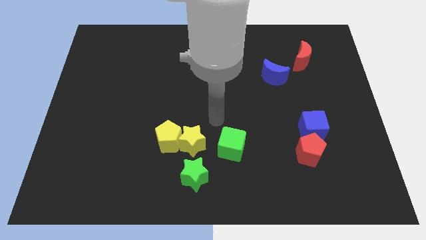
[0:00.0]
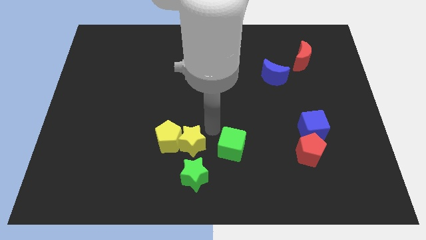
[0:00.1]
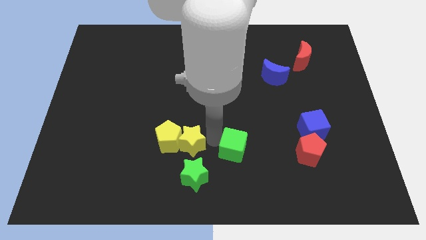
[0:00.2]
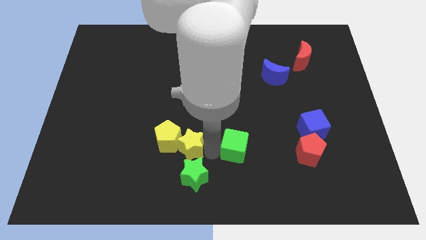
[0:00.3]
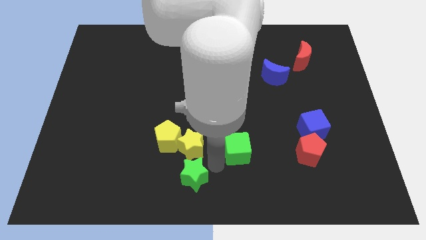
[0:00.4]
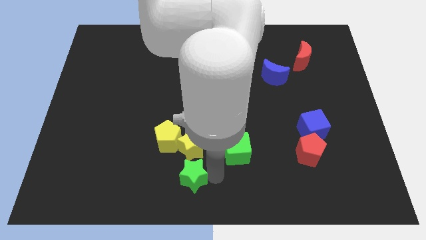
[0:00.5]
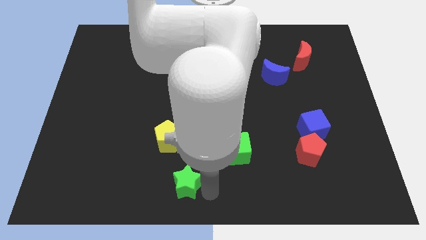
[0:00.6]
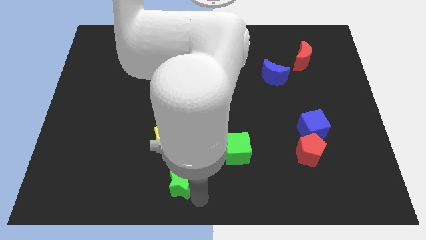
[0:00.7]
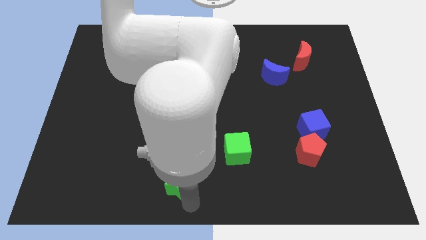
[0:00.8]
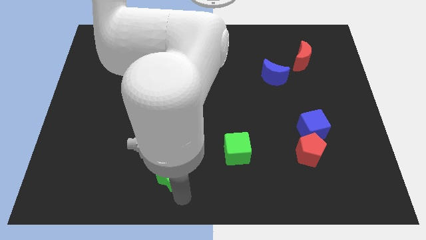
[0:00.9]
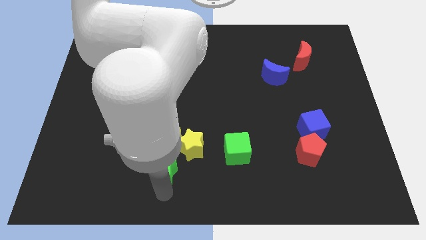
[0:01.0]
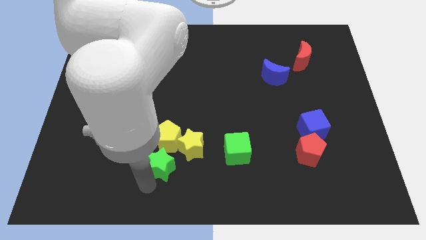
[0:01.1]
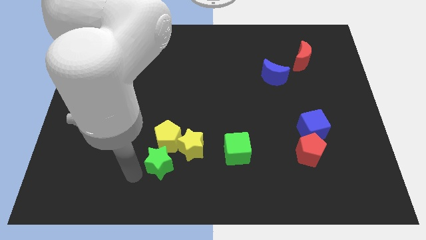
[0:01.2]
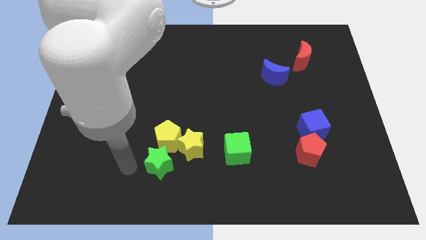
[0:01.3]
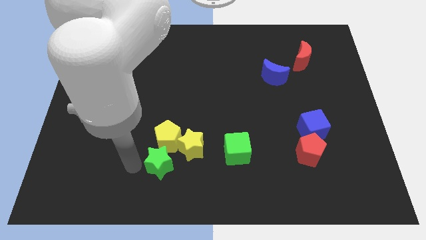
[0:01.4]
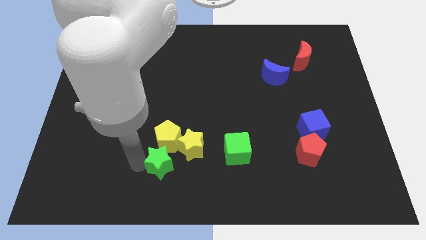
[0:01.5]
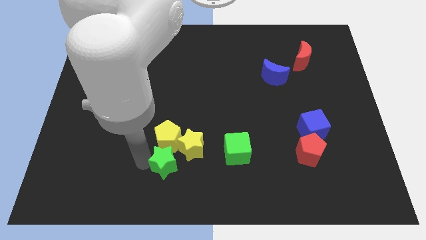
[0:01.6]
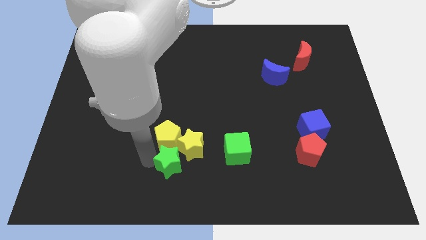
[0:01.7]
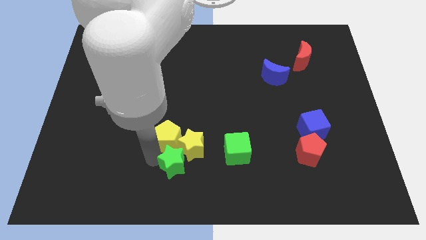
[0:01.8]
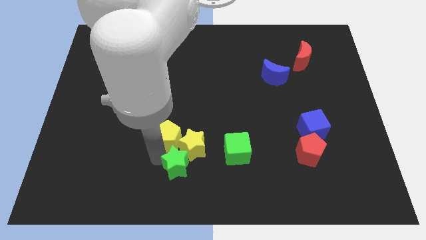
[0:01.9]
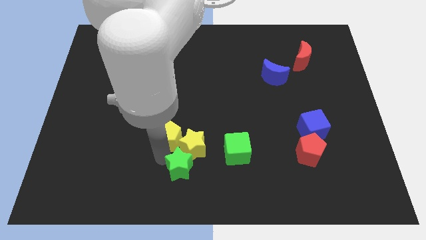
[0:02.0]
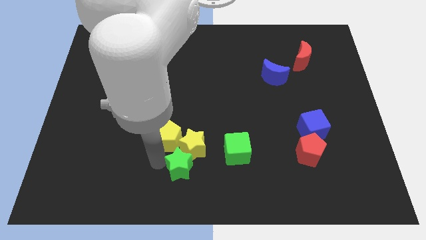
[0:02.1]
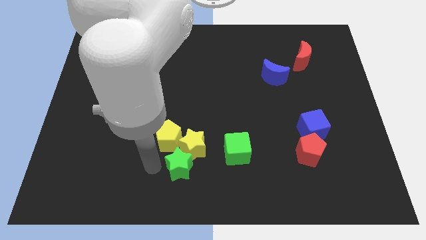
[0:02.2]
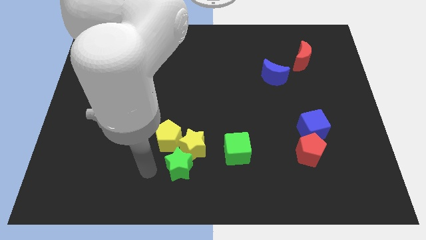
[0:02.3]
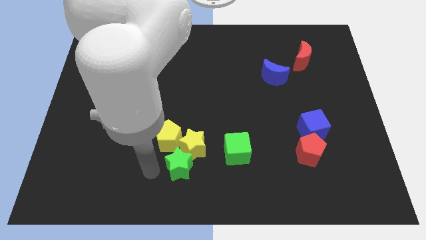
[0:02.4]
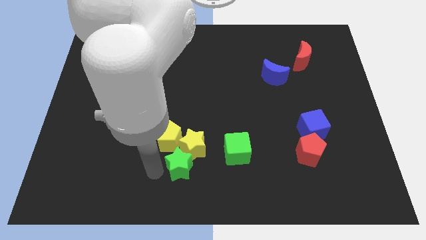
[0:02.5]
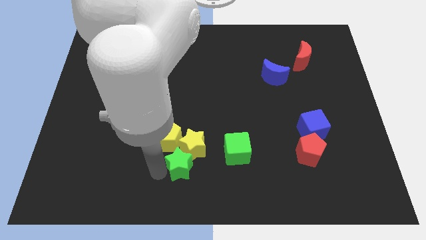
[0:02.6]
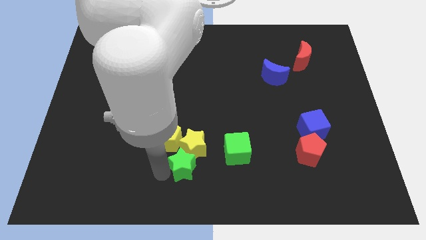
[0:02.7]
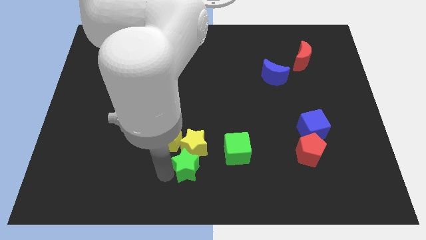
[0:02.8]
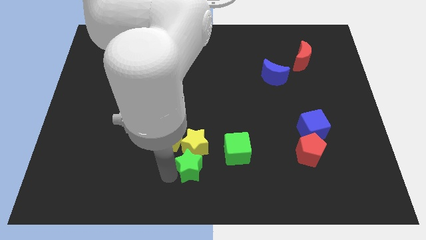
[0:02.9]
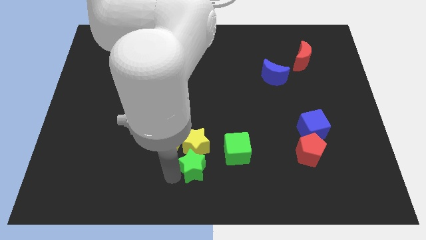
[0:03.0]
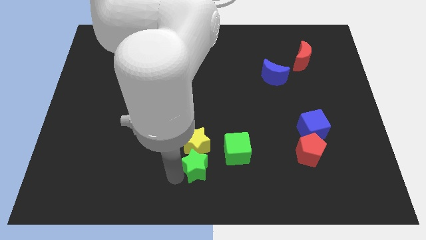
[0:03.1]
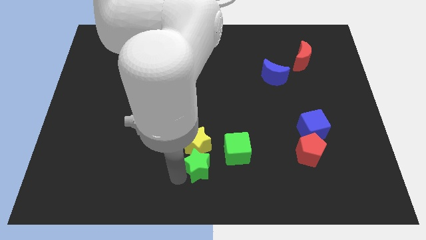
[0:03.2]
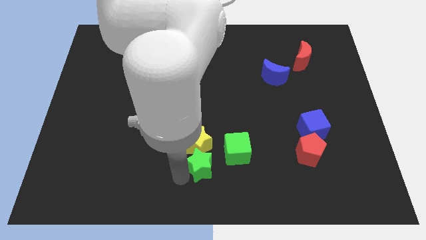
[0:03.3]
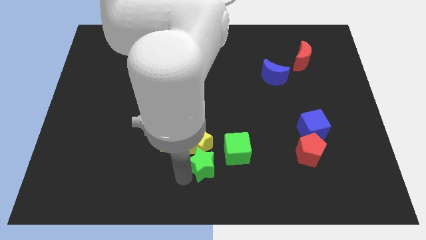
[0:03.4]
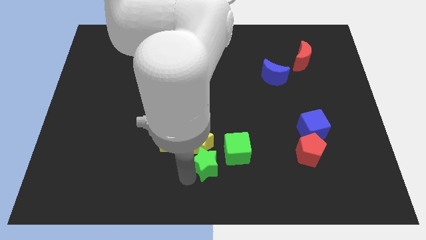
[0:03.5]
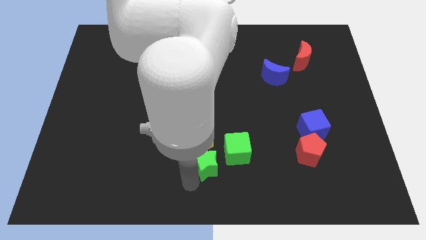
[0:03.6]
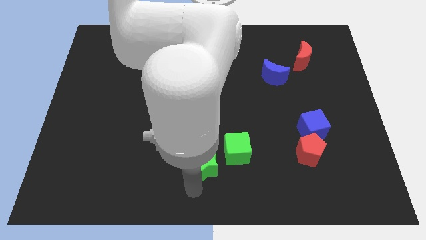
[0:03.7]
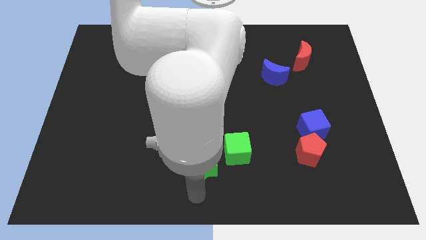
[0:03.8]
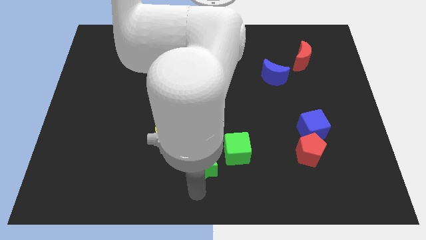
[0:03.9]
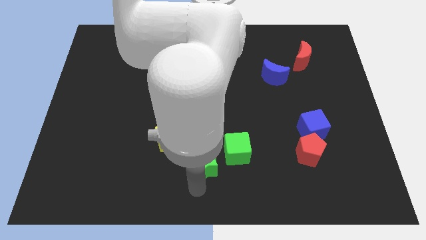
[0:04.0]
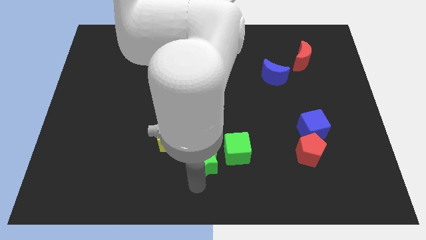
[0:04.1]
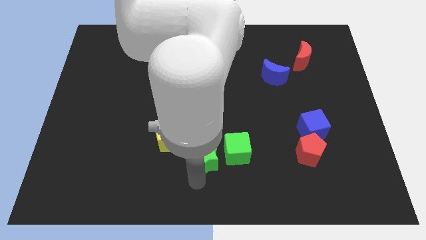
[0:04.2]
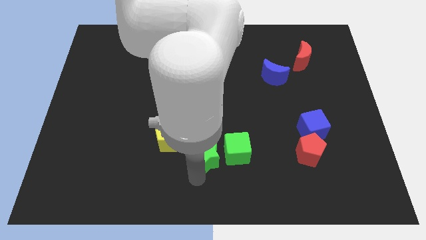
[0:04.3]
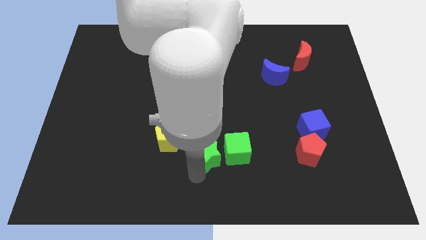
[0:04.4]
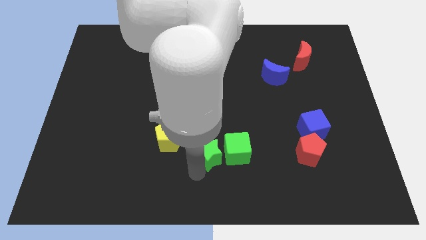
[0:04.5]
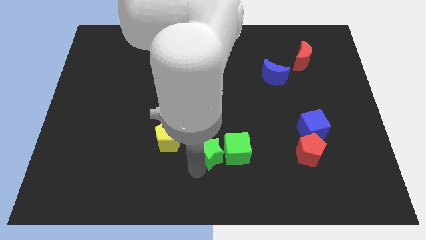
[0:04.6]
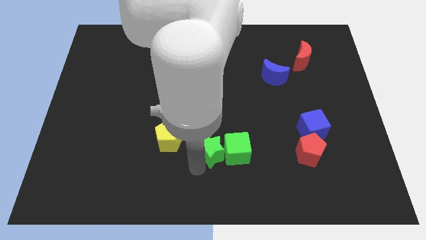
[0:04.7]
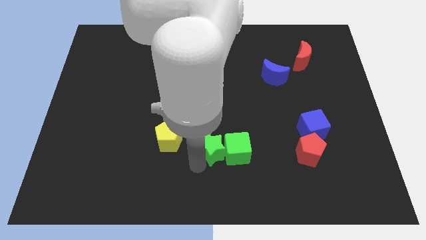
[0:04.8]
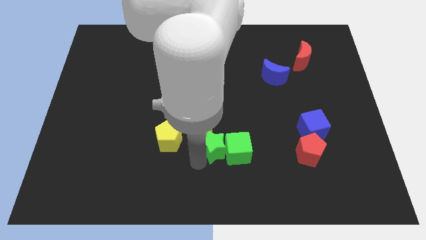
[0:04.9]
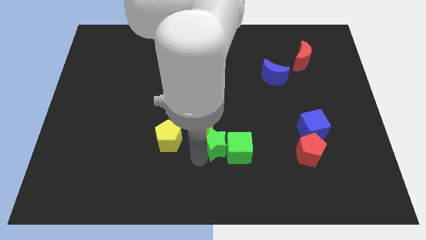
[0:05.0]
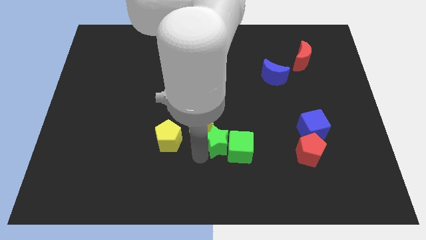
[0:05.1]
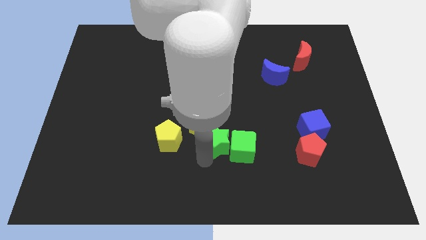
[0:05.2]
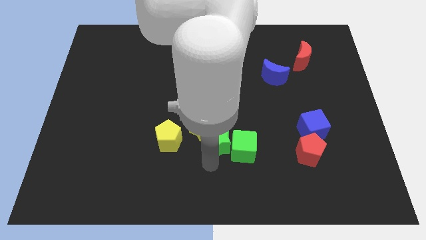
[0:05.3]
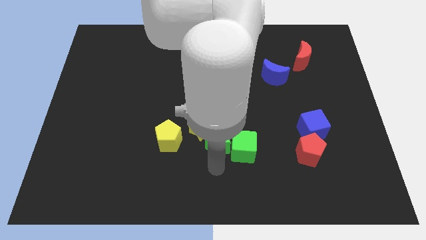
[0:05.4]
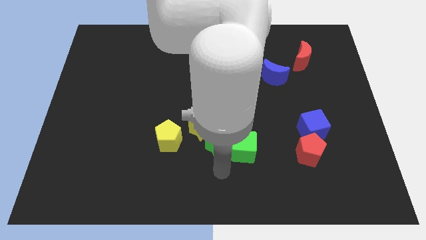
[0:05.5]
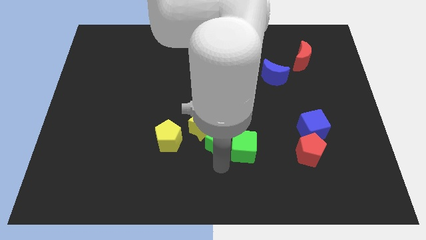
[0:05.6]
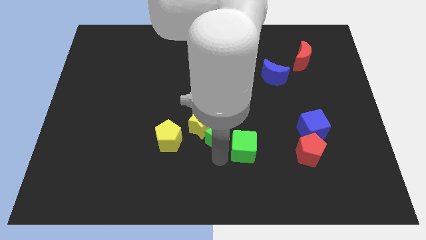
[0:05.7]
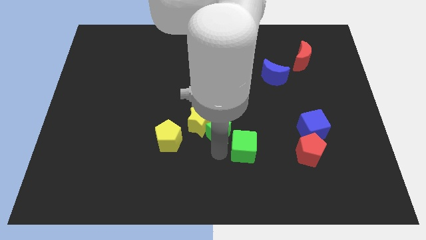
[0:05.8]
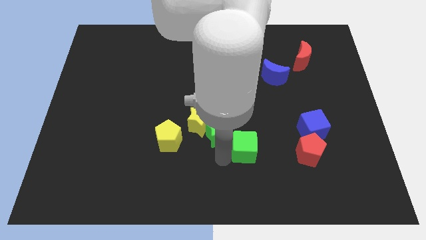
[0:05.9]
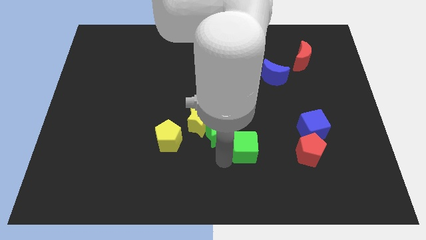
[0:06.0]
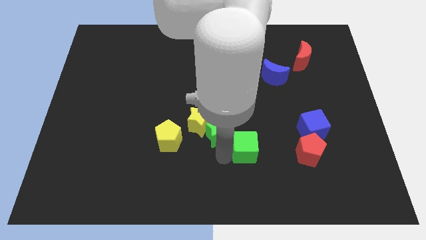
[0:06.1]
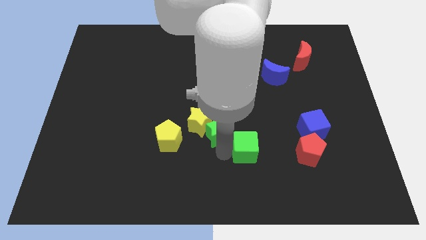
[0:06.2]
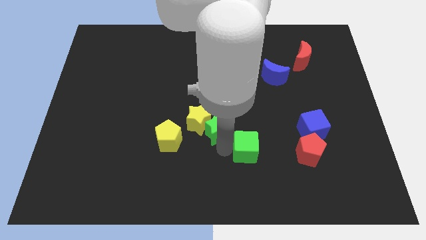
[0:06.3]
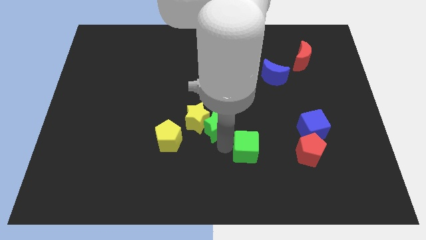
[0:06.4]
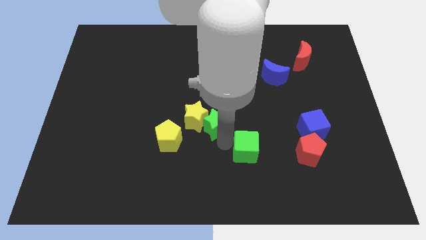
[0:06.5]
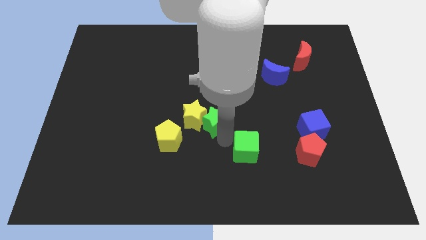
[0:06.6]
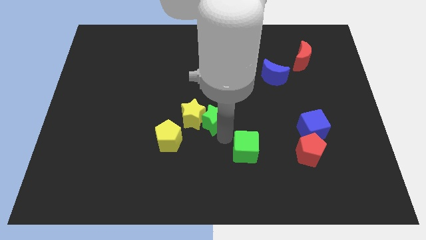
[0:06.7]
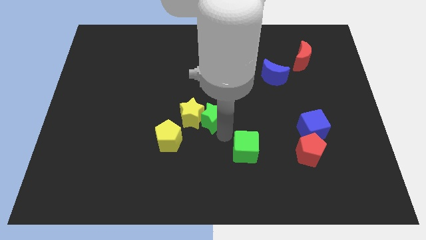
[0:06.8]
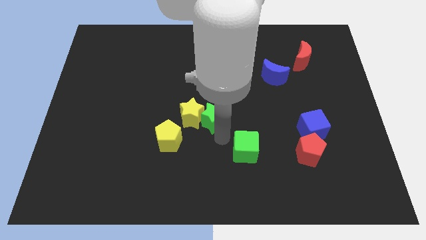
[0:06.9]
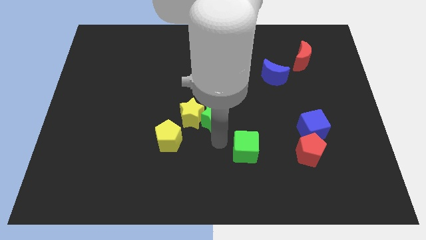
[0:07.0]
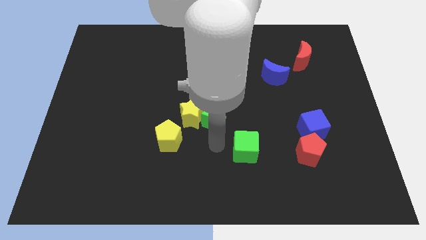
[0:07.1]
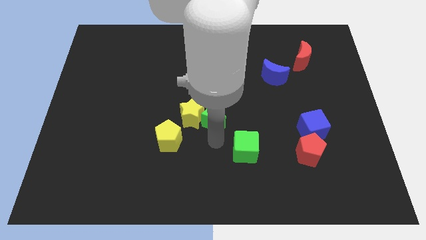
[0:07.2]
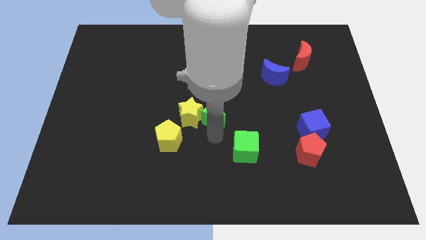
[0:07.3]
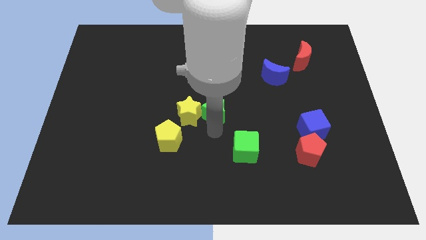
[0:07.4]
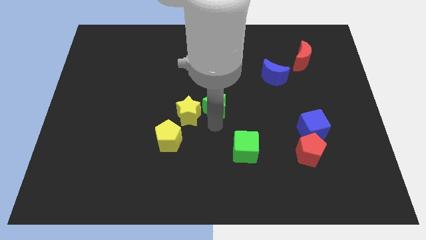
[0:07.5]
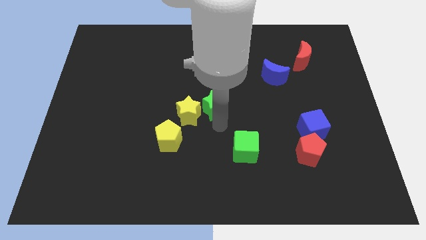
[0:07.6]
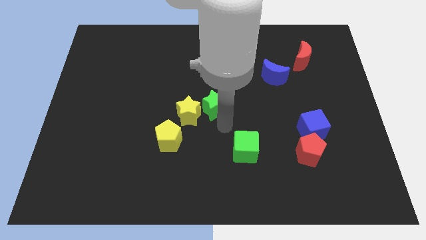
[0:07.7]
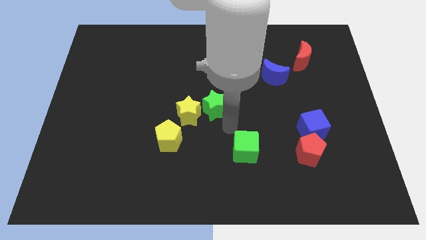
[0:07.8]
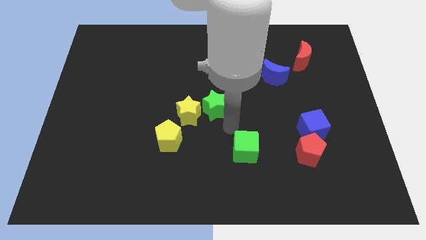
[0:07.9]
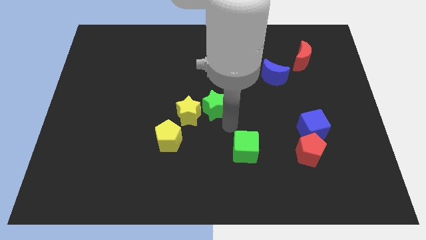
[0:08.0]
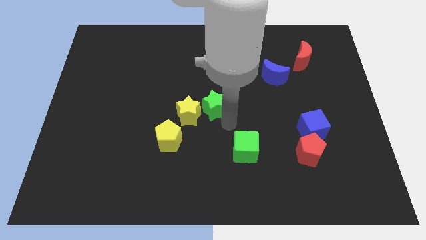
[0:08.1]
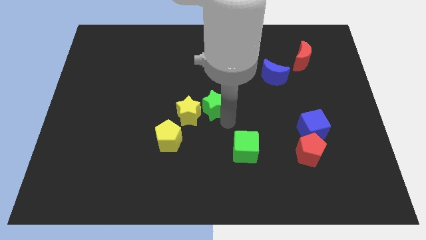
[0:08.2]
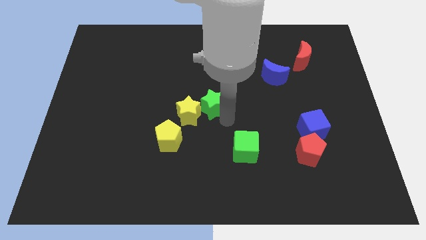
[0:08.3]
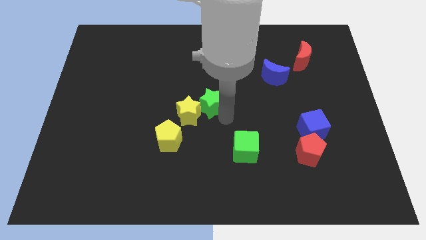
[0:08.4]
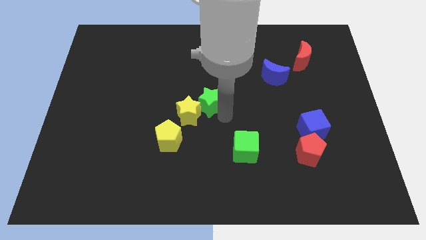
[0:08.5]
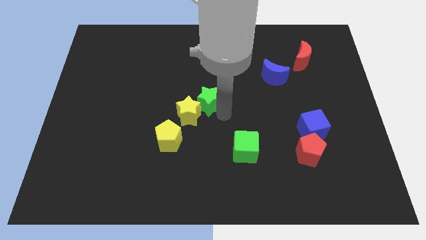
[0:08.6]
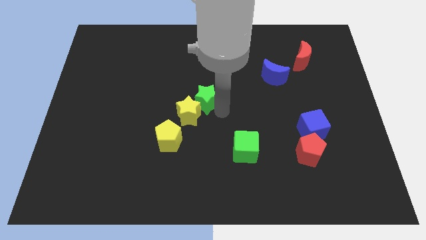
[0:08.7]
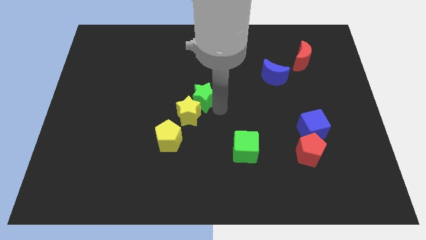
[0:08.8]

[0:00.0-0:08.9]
move the green star upwards
